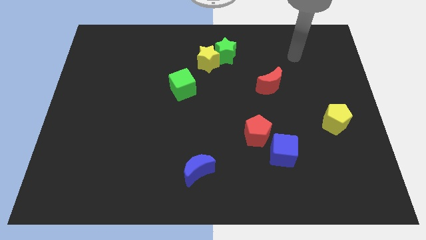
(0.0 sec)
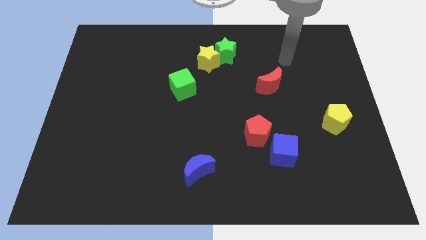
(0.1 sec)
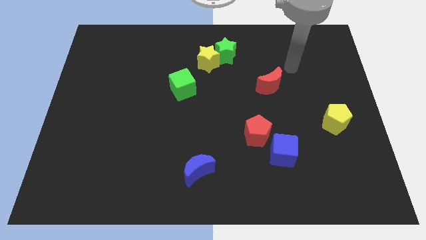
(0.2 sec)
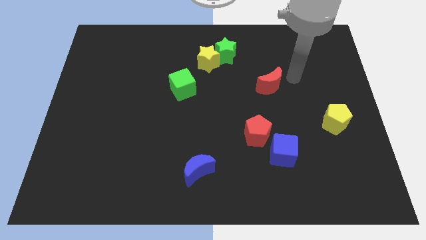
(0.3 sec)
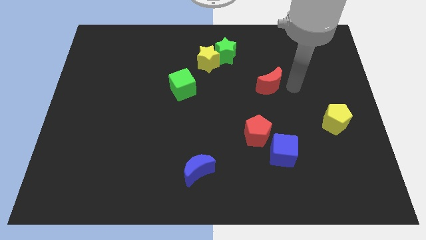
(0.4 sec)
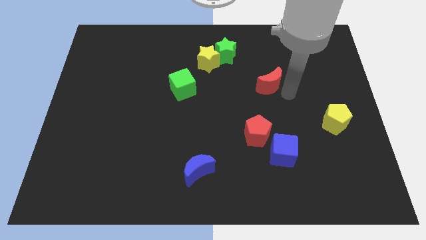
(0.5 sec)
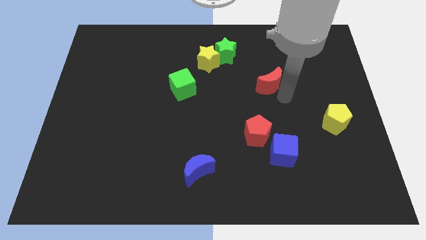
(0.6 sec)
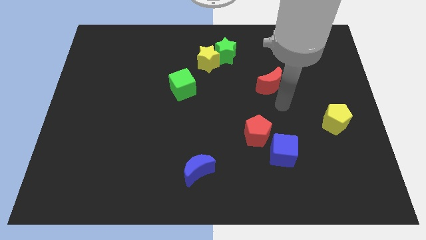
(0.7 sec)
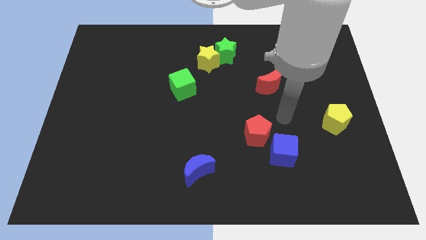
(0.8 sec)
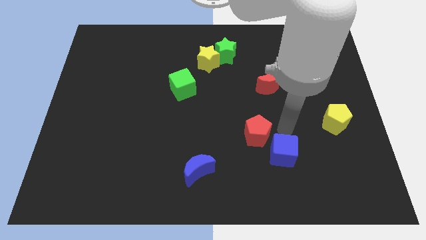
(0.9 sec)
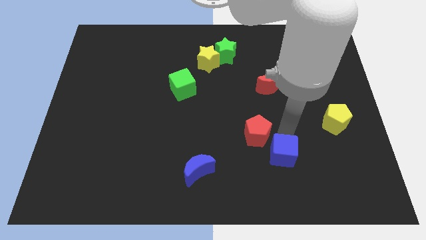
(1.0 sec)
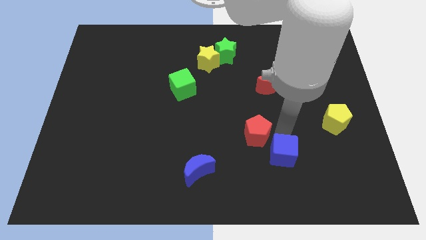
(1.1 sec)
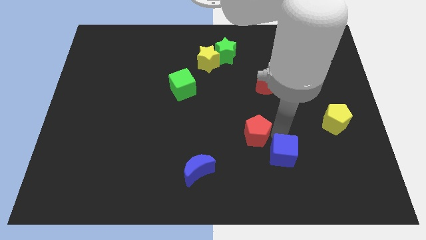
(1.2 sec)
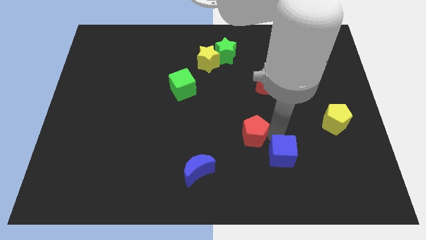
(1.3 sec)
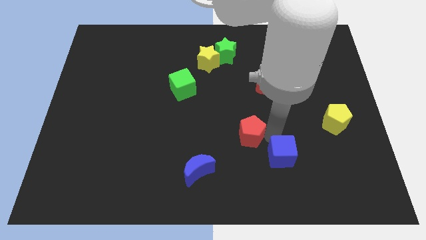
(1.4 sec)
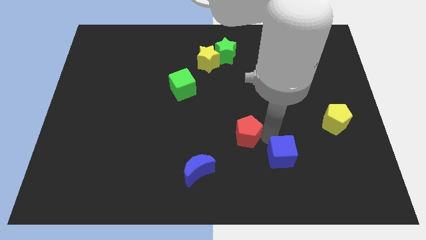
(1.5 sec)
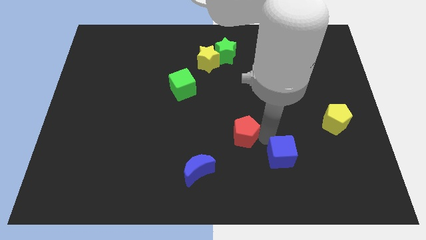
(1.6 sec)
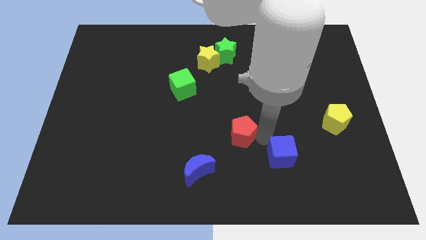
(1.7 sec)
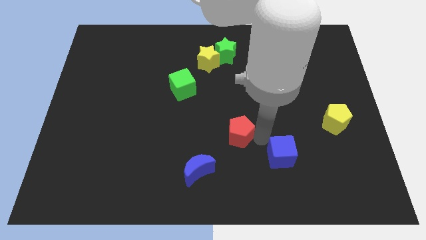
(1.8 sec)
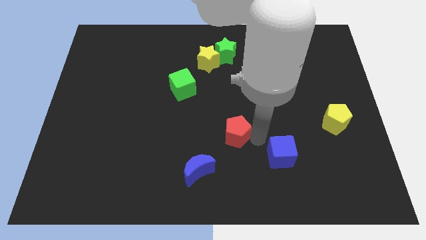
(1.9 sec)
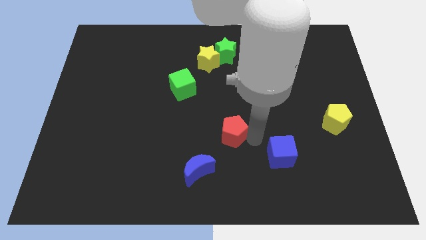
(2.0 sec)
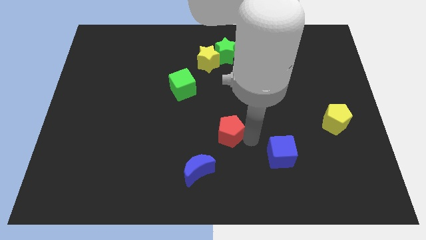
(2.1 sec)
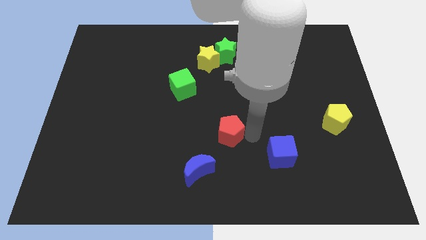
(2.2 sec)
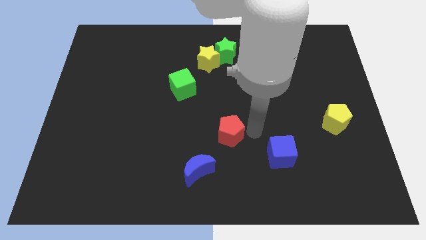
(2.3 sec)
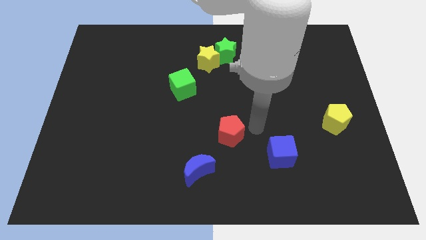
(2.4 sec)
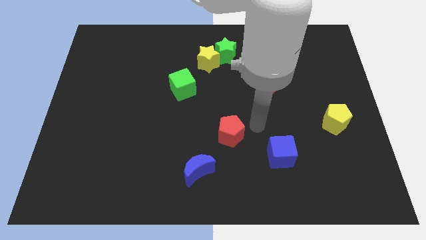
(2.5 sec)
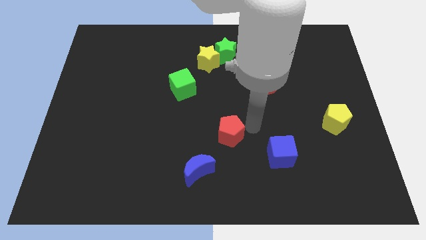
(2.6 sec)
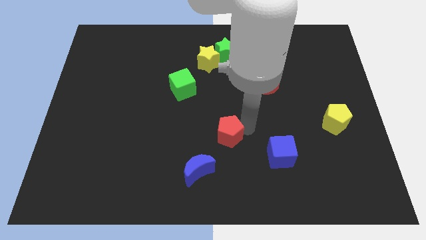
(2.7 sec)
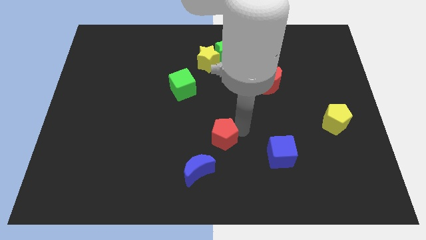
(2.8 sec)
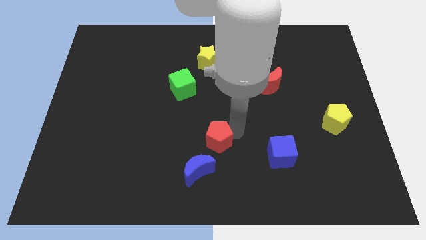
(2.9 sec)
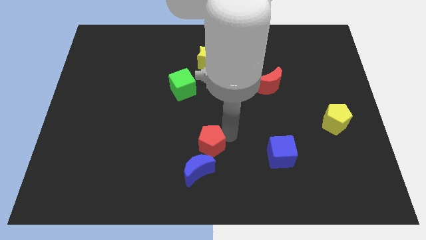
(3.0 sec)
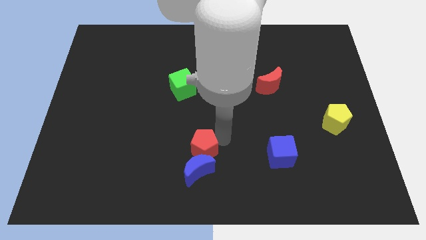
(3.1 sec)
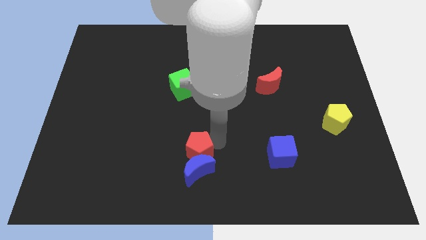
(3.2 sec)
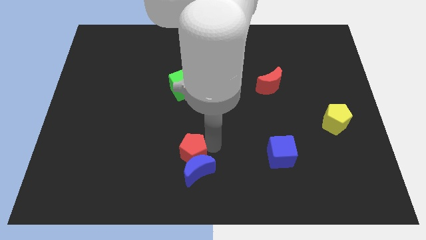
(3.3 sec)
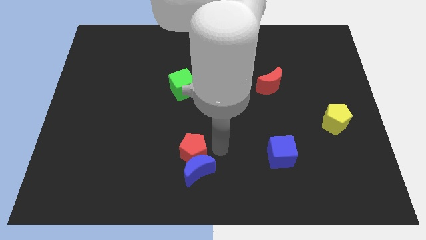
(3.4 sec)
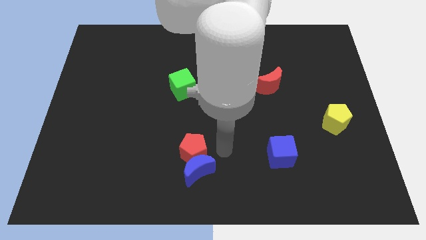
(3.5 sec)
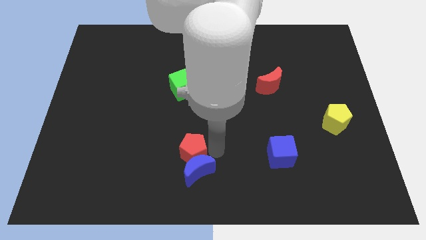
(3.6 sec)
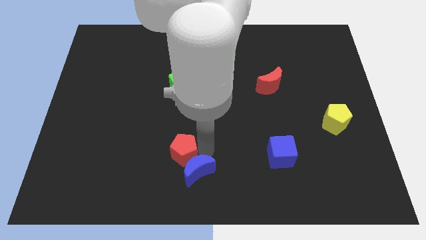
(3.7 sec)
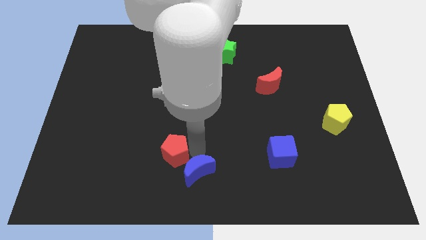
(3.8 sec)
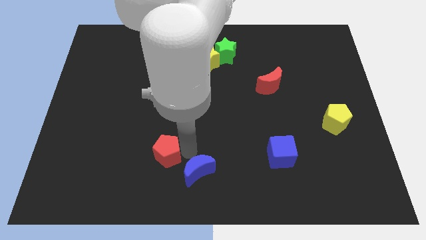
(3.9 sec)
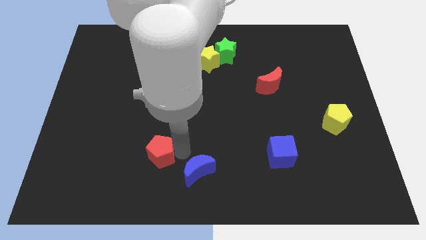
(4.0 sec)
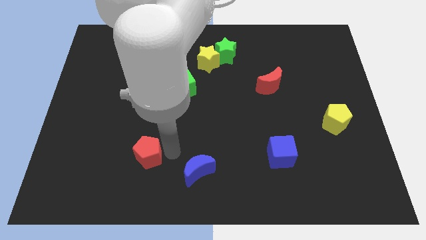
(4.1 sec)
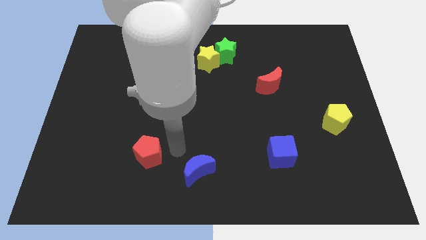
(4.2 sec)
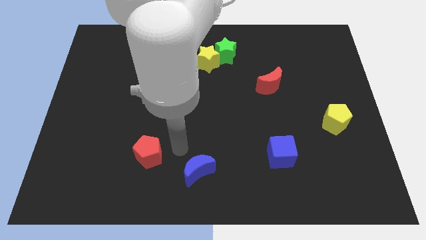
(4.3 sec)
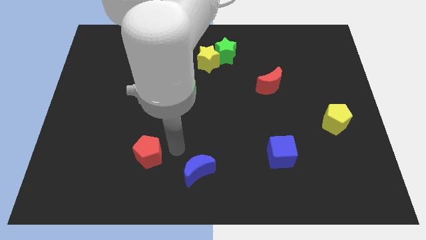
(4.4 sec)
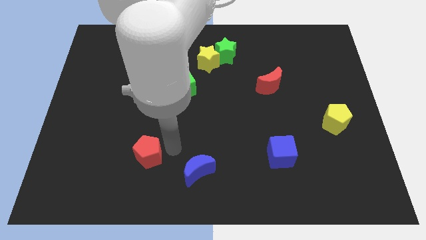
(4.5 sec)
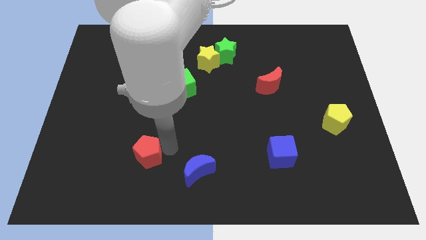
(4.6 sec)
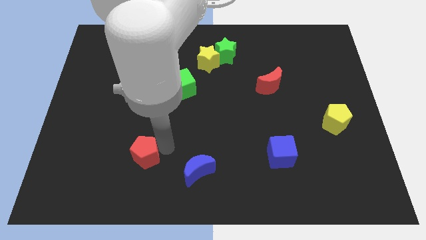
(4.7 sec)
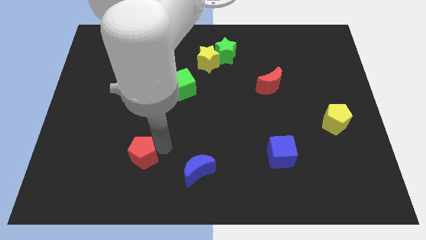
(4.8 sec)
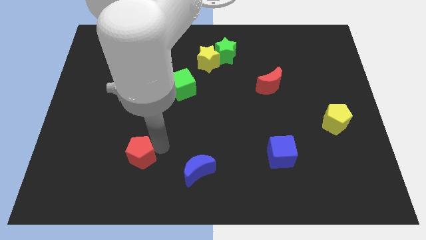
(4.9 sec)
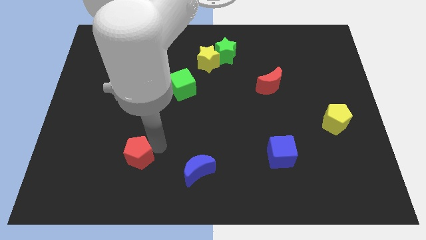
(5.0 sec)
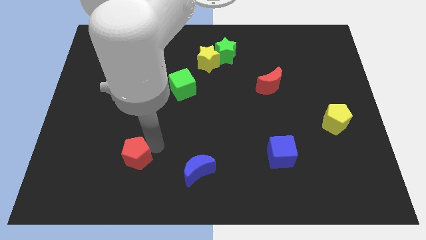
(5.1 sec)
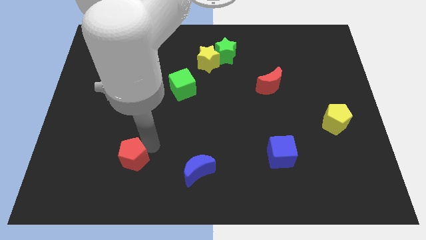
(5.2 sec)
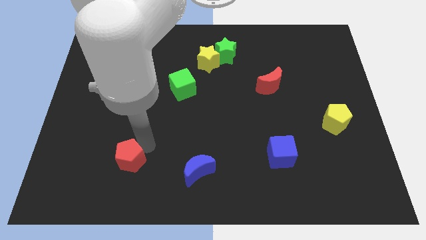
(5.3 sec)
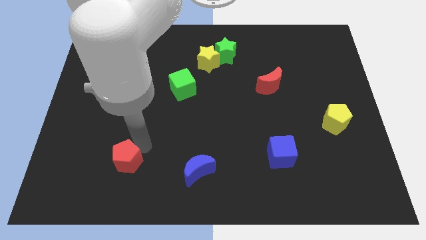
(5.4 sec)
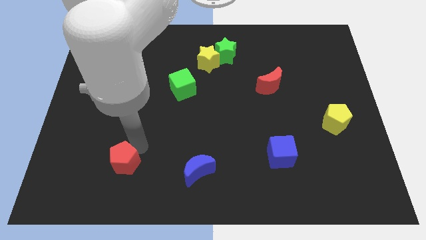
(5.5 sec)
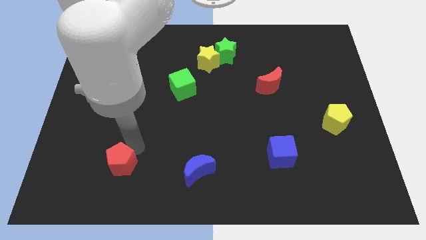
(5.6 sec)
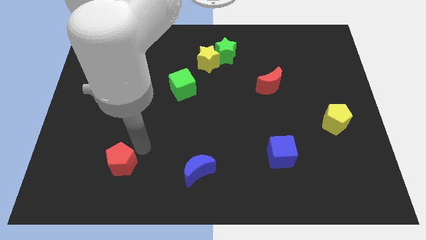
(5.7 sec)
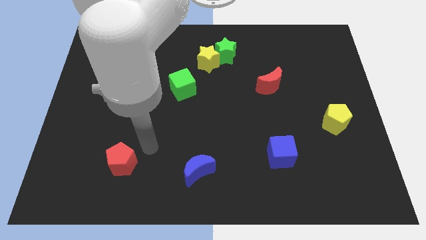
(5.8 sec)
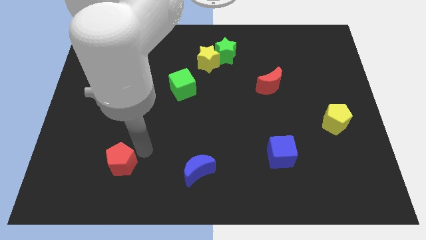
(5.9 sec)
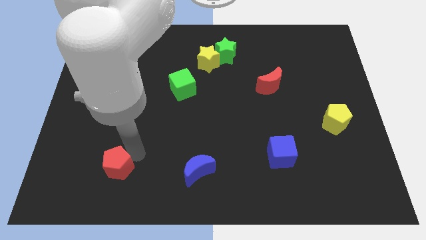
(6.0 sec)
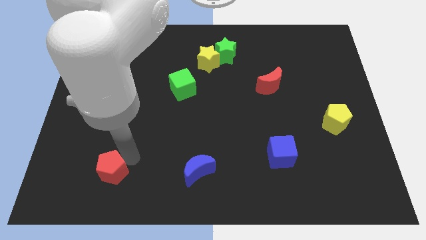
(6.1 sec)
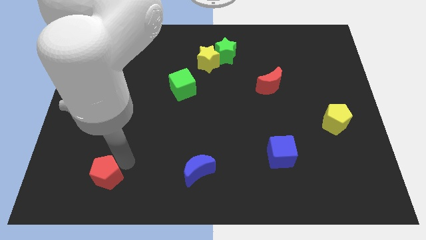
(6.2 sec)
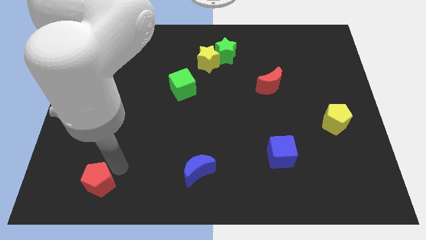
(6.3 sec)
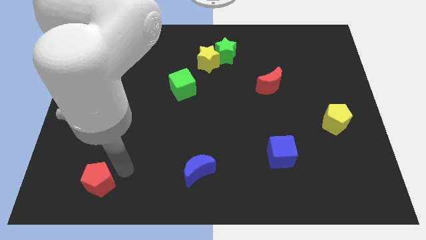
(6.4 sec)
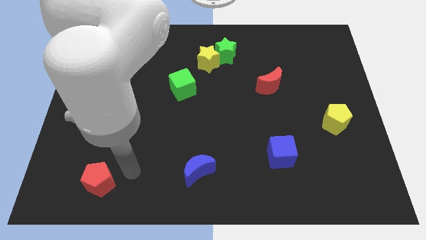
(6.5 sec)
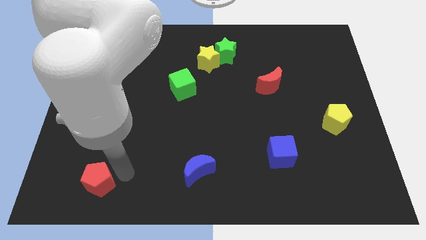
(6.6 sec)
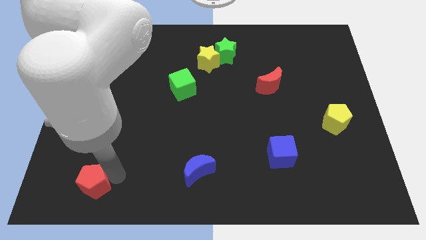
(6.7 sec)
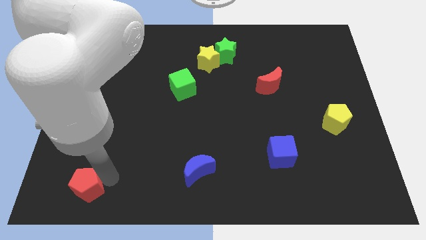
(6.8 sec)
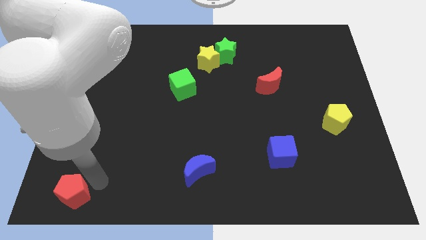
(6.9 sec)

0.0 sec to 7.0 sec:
slide the red pentagon to the bottom left corner

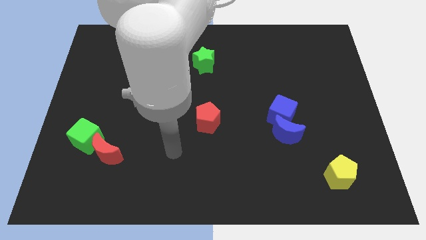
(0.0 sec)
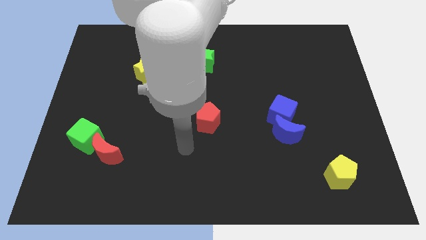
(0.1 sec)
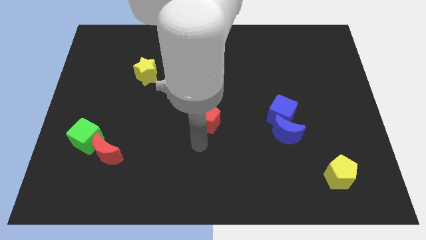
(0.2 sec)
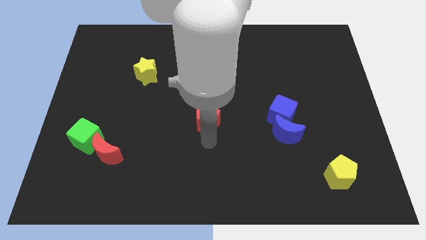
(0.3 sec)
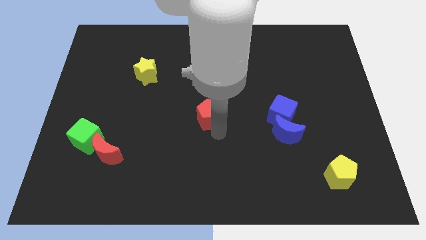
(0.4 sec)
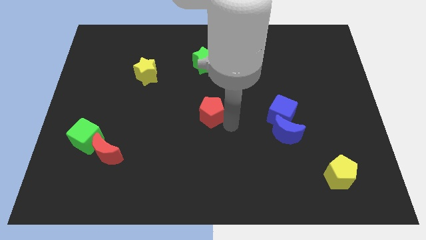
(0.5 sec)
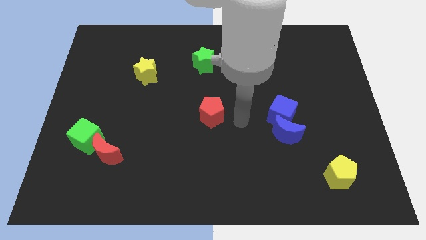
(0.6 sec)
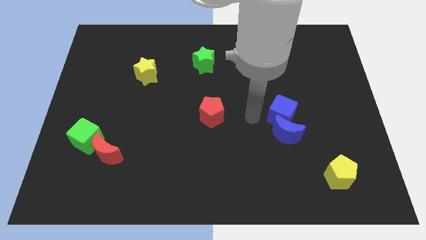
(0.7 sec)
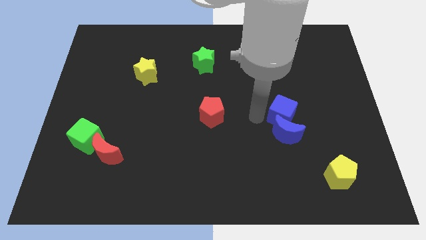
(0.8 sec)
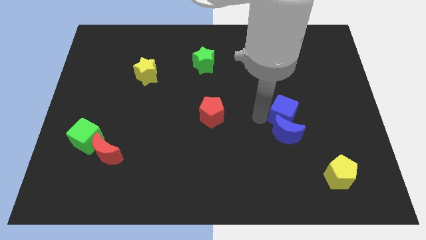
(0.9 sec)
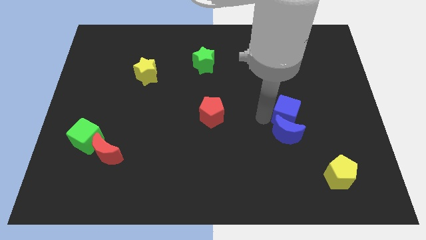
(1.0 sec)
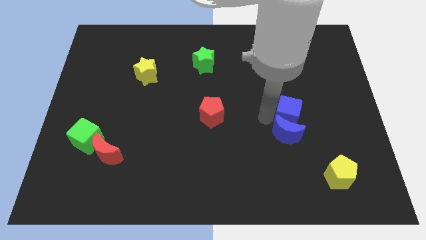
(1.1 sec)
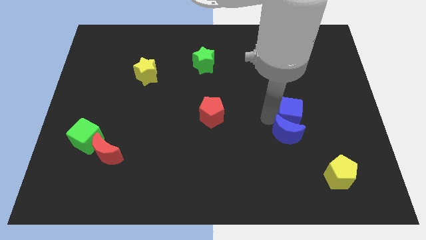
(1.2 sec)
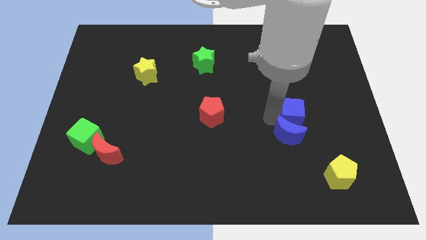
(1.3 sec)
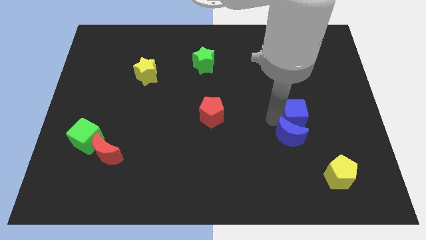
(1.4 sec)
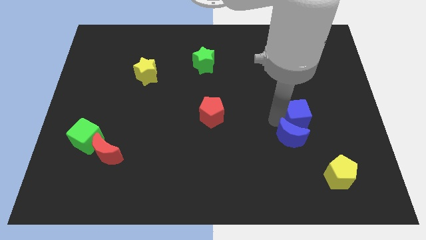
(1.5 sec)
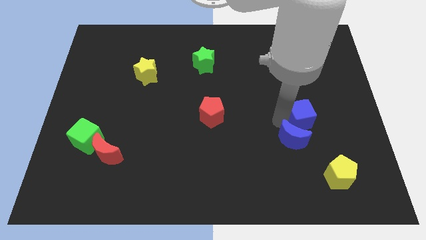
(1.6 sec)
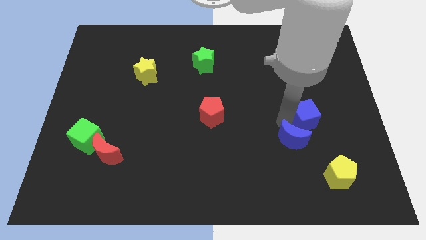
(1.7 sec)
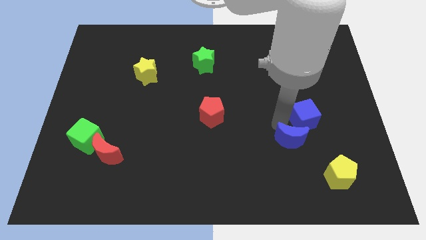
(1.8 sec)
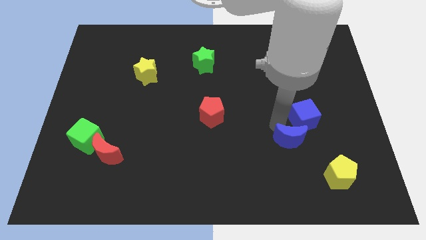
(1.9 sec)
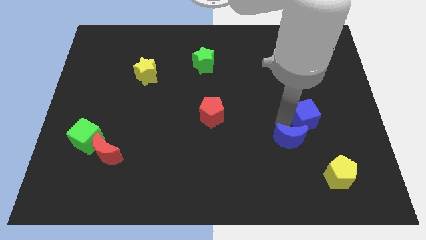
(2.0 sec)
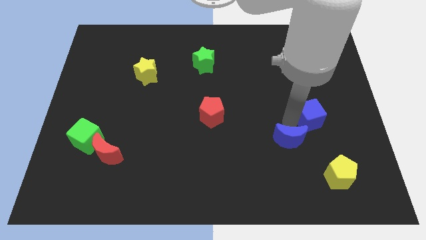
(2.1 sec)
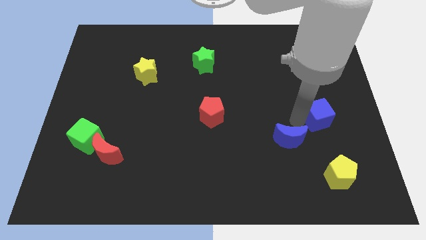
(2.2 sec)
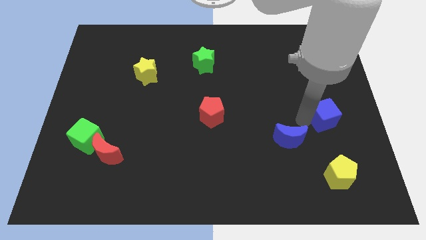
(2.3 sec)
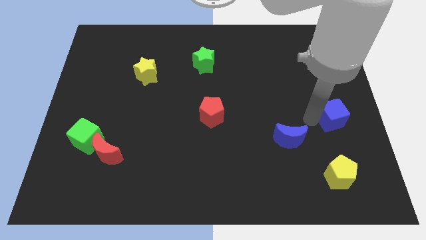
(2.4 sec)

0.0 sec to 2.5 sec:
put the blue cube to the right side of the board
